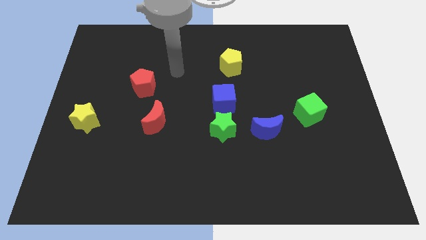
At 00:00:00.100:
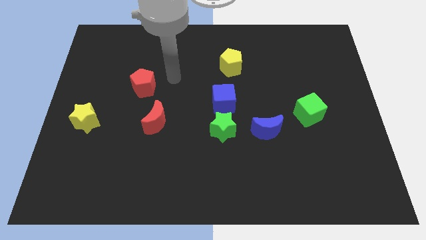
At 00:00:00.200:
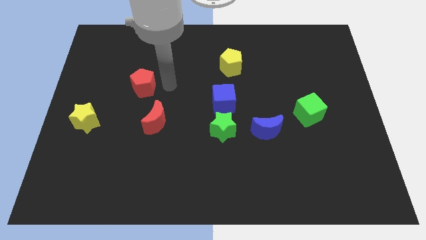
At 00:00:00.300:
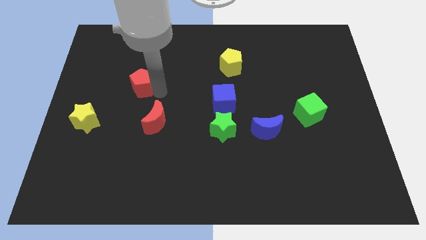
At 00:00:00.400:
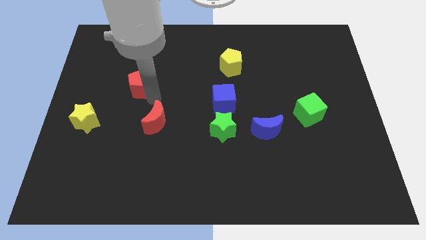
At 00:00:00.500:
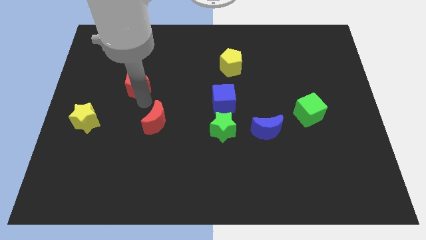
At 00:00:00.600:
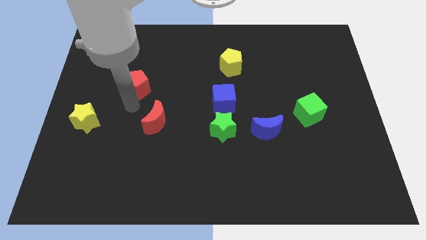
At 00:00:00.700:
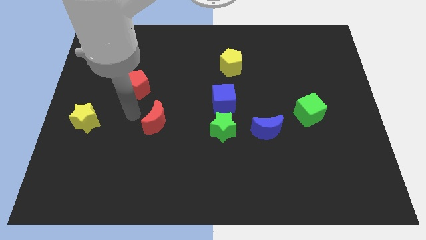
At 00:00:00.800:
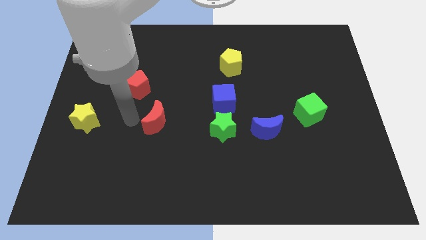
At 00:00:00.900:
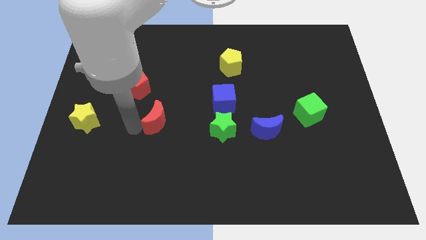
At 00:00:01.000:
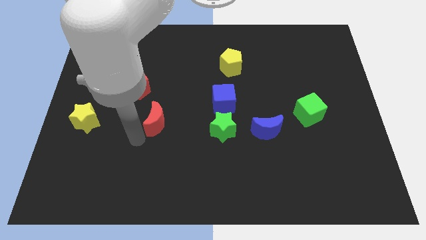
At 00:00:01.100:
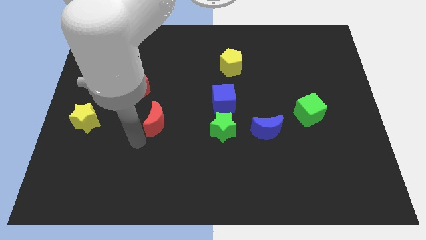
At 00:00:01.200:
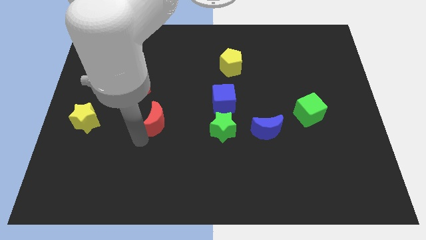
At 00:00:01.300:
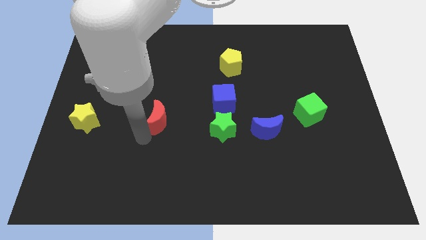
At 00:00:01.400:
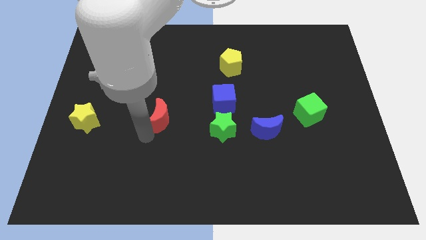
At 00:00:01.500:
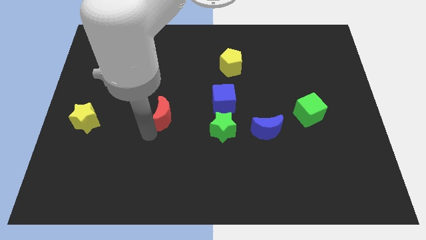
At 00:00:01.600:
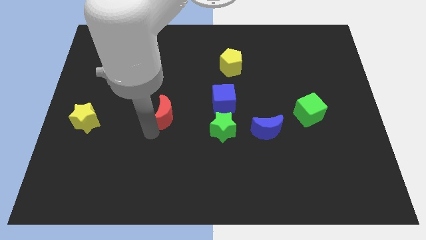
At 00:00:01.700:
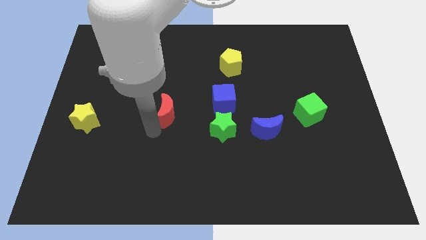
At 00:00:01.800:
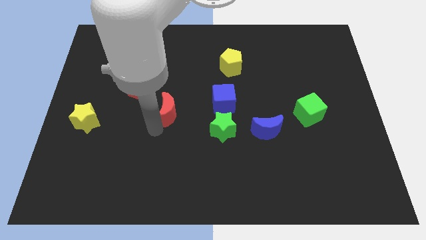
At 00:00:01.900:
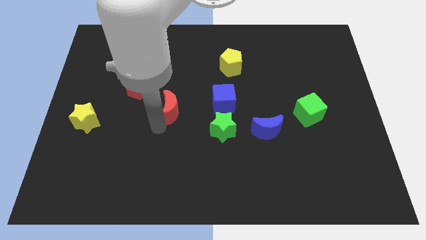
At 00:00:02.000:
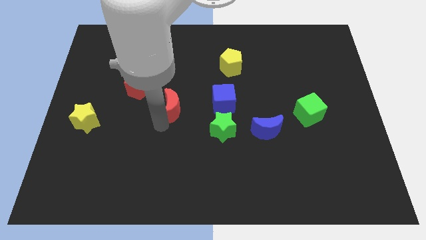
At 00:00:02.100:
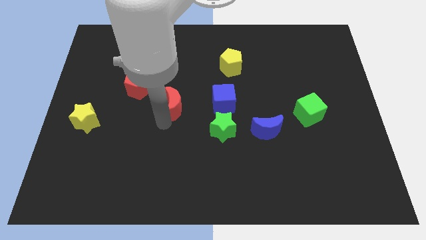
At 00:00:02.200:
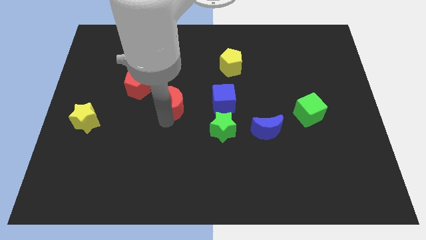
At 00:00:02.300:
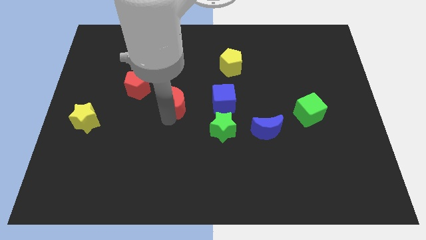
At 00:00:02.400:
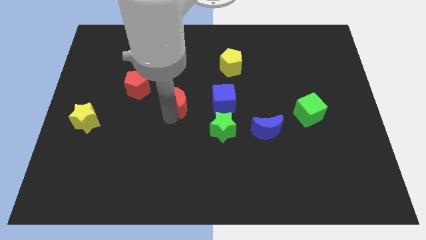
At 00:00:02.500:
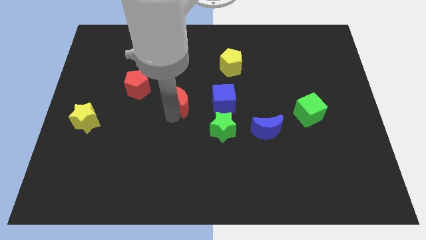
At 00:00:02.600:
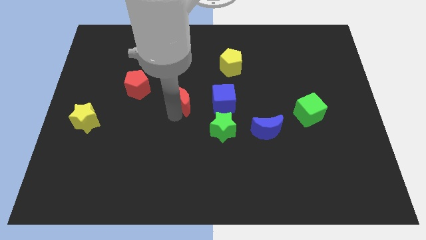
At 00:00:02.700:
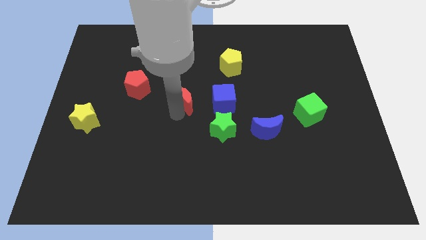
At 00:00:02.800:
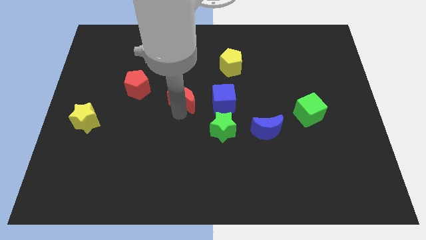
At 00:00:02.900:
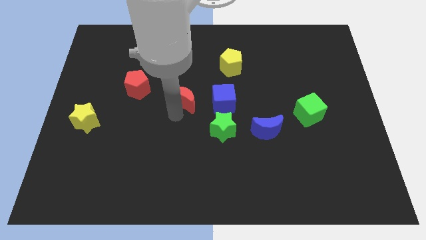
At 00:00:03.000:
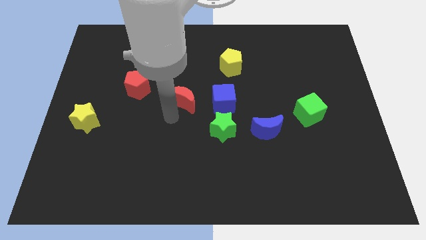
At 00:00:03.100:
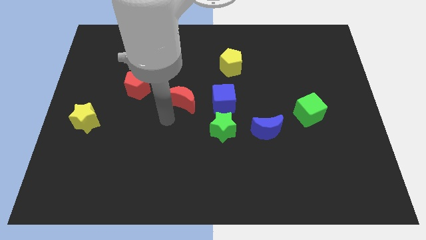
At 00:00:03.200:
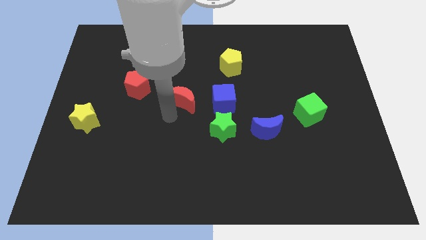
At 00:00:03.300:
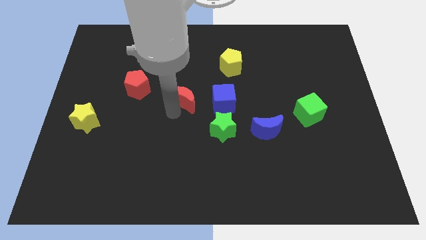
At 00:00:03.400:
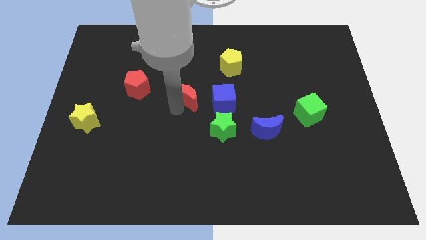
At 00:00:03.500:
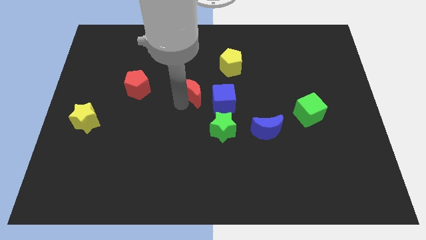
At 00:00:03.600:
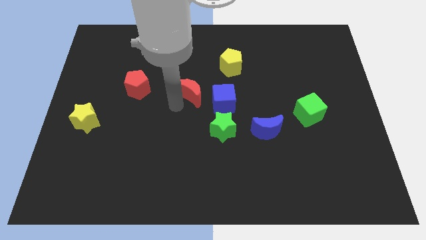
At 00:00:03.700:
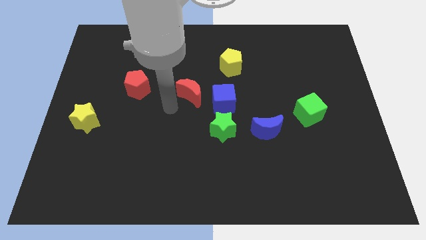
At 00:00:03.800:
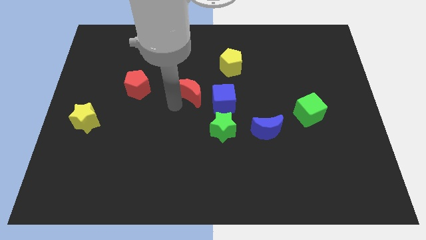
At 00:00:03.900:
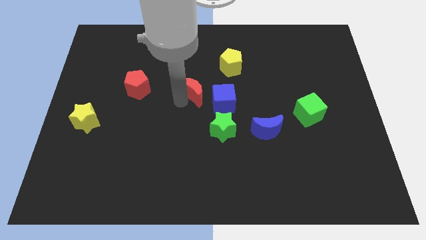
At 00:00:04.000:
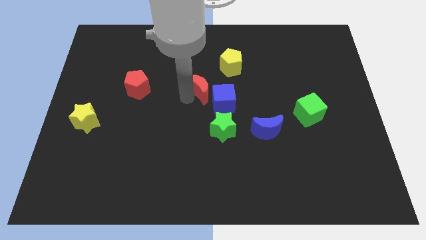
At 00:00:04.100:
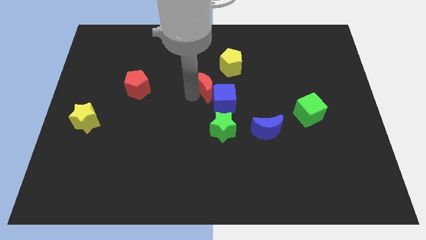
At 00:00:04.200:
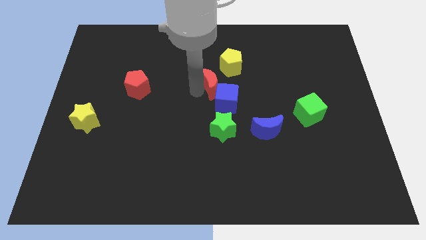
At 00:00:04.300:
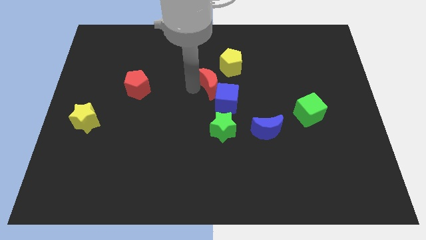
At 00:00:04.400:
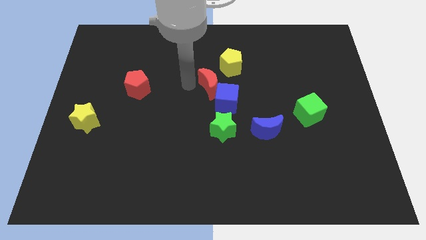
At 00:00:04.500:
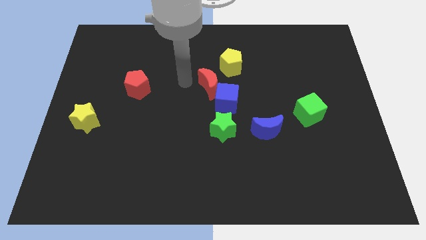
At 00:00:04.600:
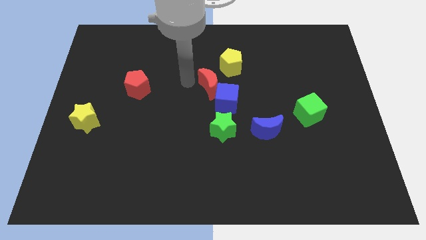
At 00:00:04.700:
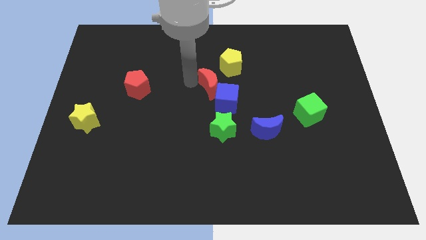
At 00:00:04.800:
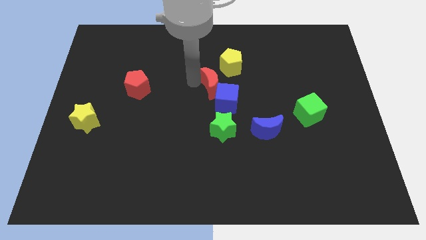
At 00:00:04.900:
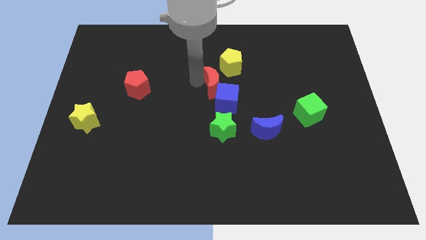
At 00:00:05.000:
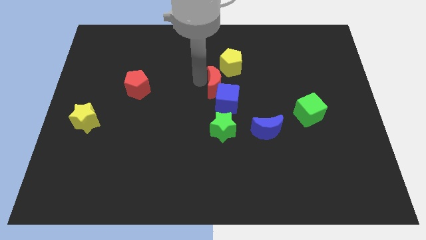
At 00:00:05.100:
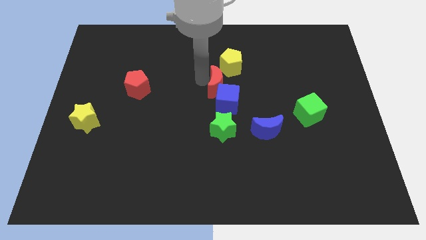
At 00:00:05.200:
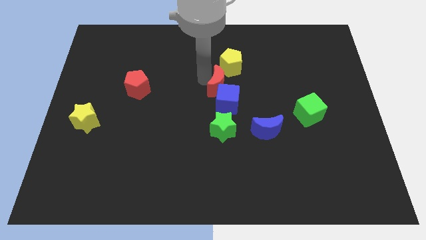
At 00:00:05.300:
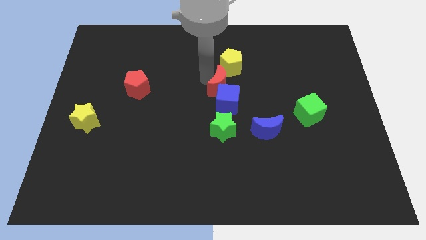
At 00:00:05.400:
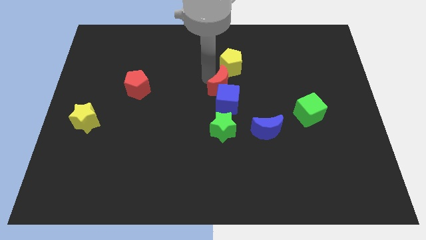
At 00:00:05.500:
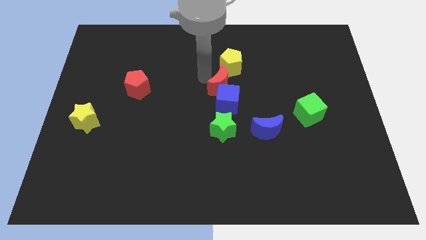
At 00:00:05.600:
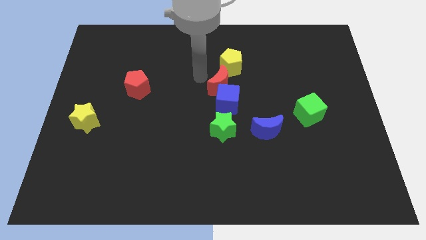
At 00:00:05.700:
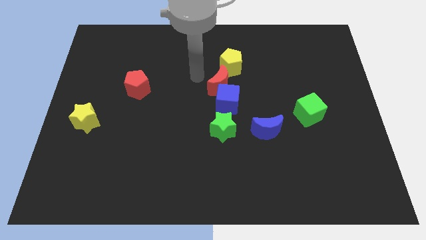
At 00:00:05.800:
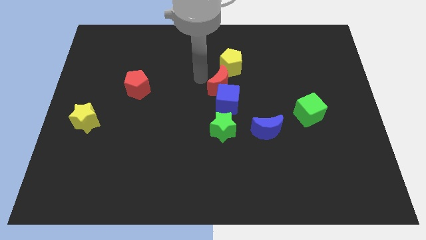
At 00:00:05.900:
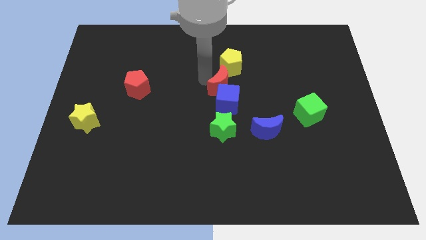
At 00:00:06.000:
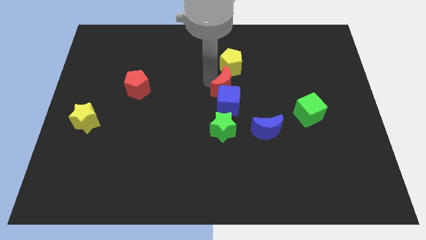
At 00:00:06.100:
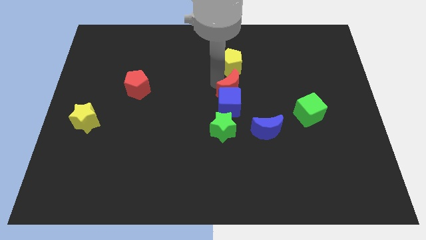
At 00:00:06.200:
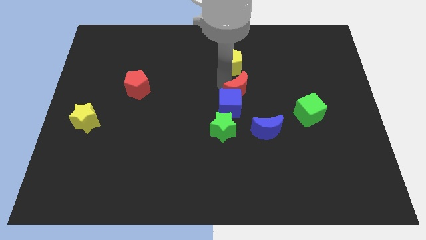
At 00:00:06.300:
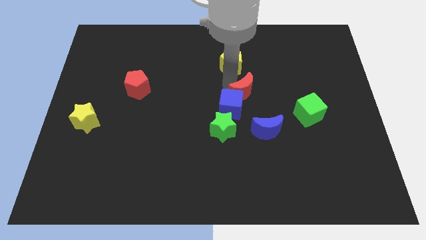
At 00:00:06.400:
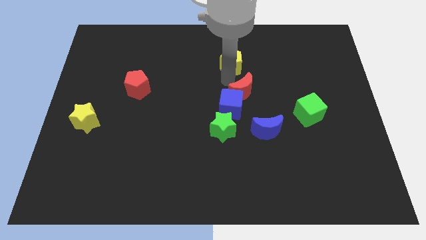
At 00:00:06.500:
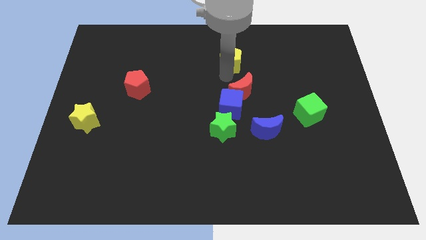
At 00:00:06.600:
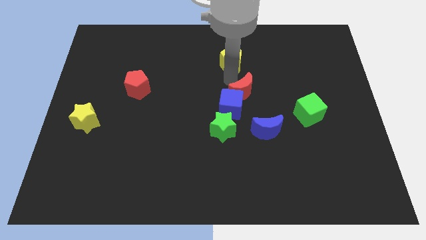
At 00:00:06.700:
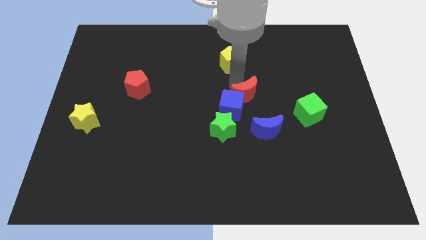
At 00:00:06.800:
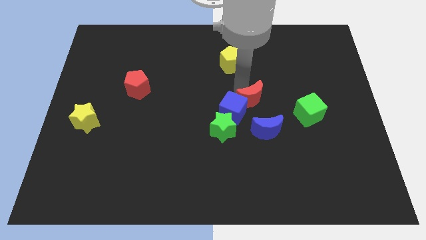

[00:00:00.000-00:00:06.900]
put the red moon to the left of the green cube
